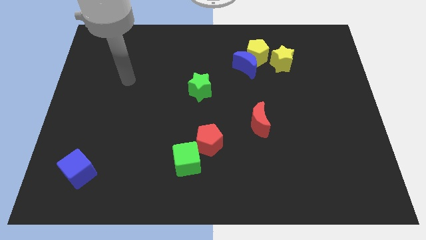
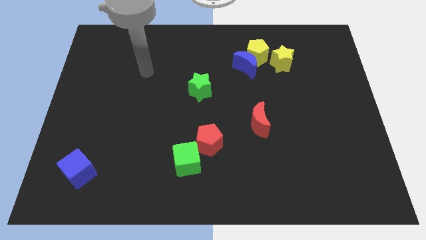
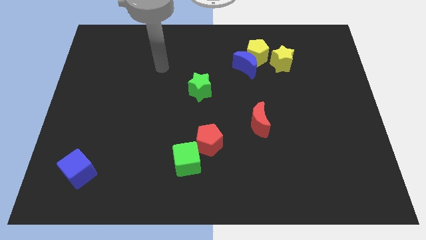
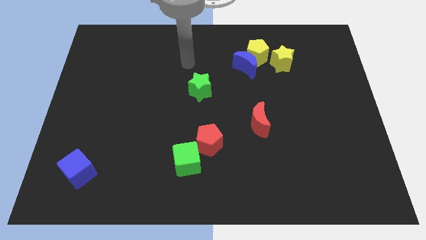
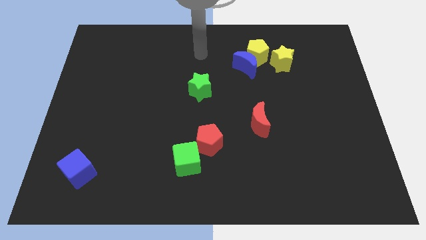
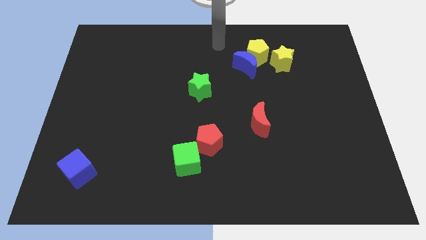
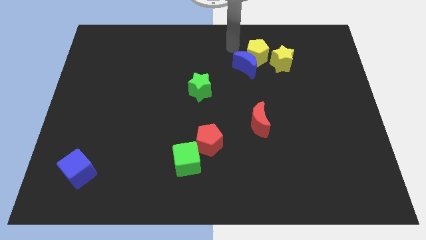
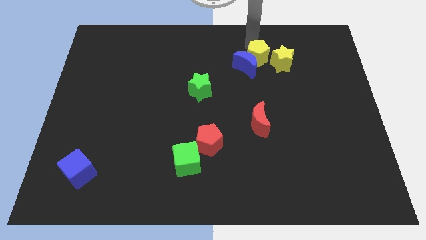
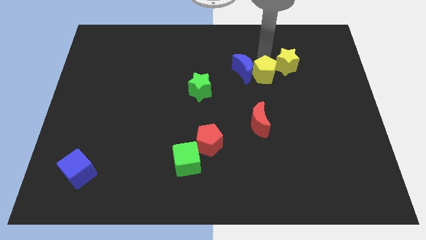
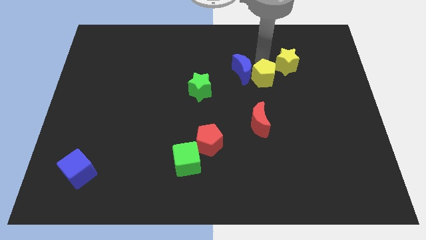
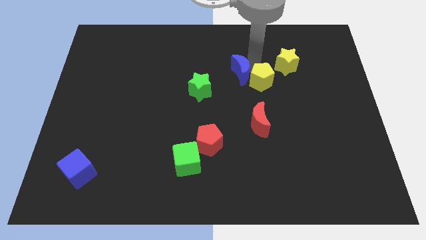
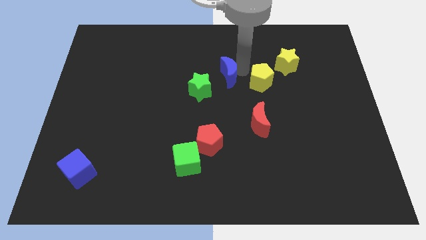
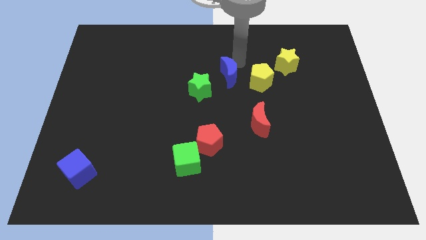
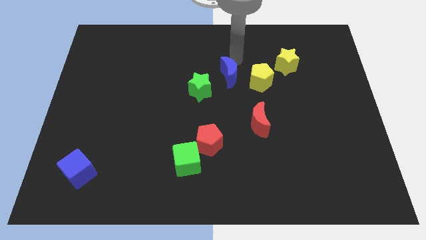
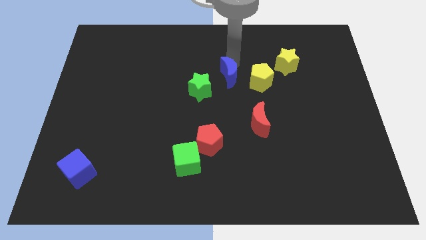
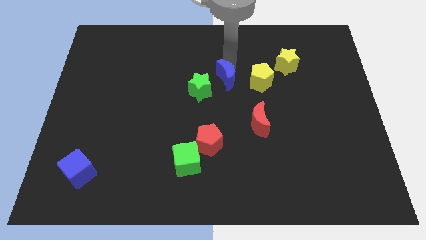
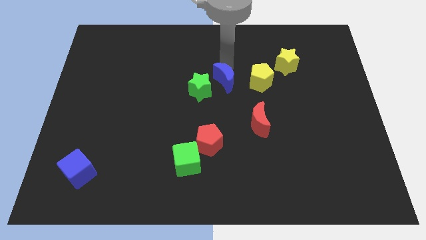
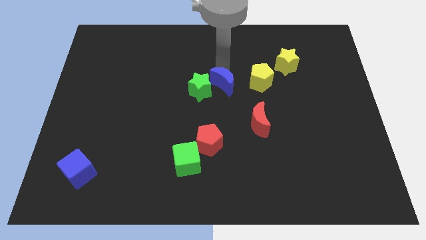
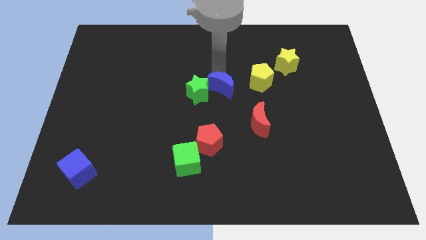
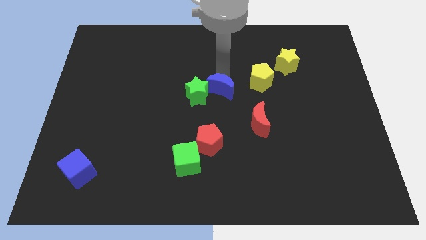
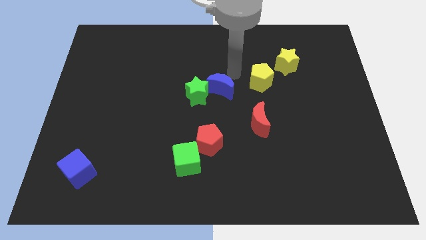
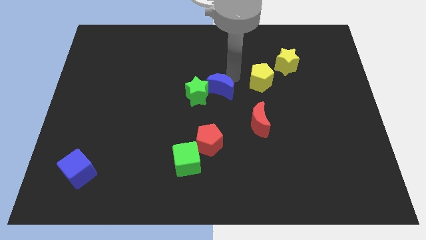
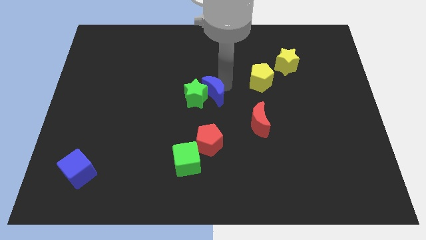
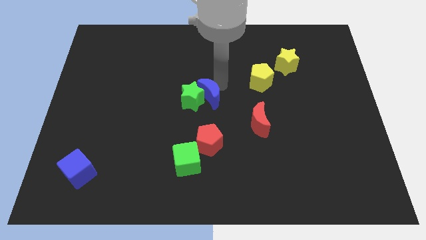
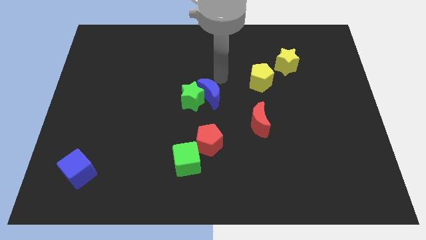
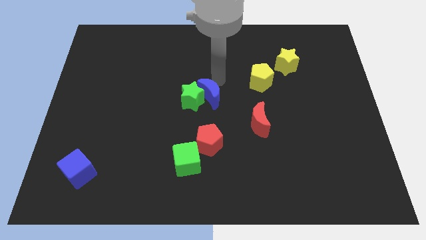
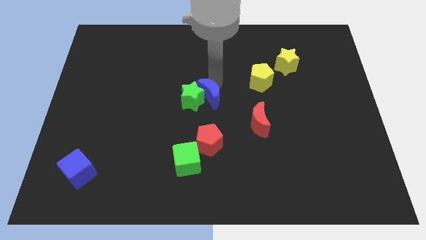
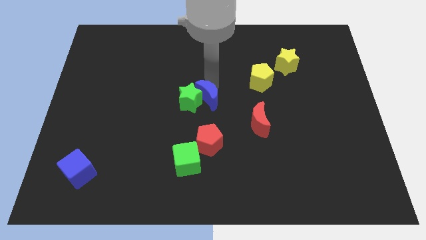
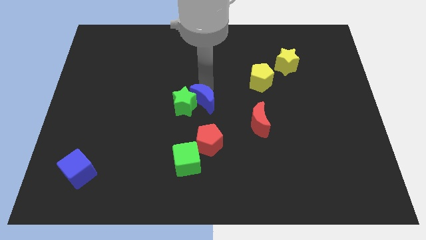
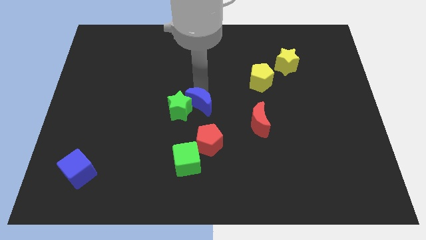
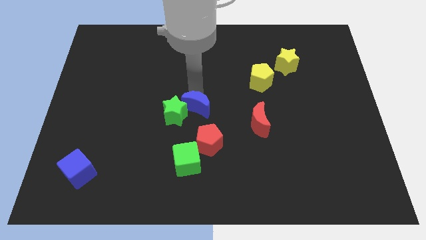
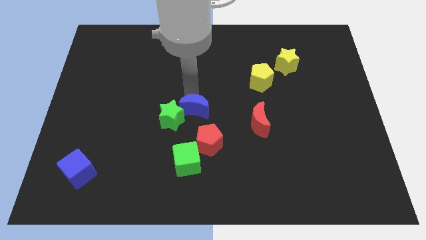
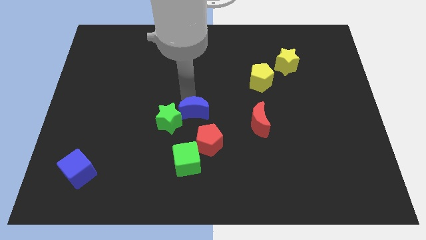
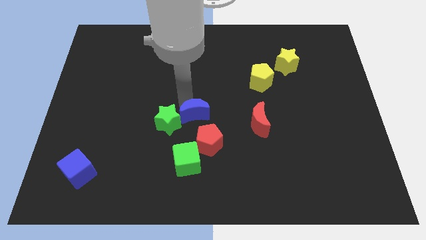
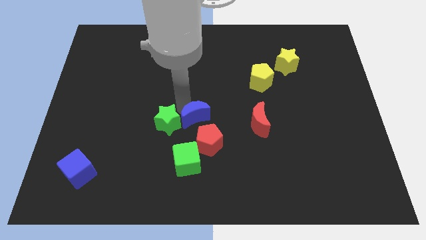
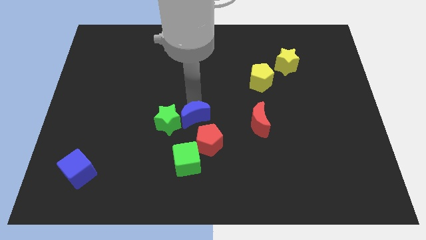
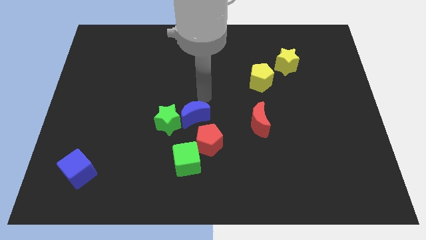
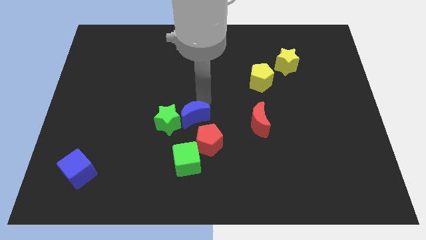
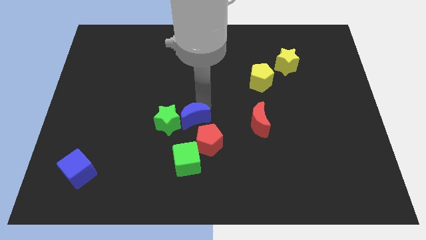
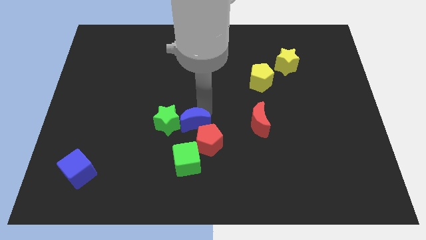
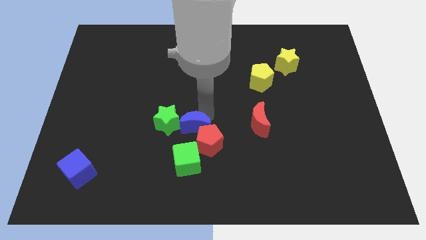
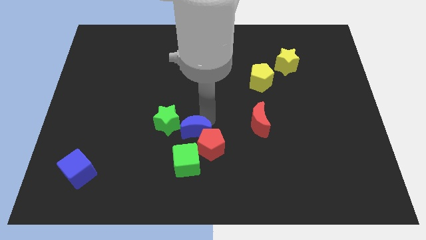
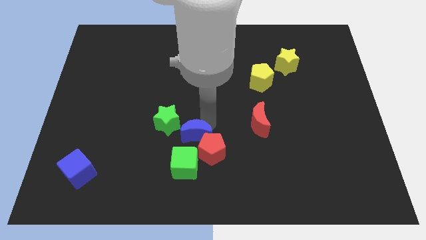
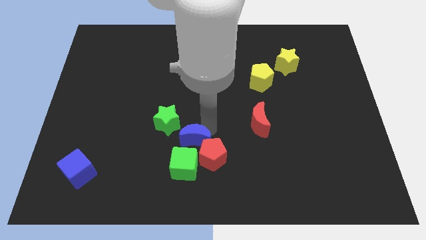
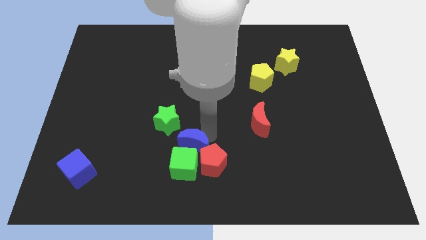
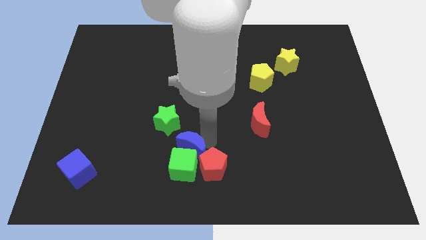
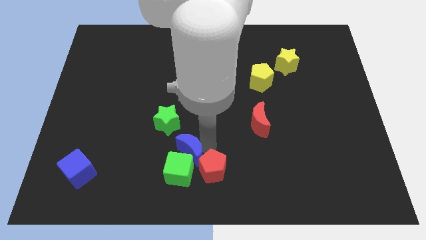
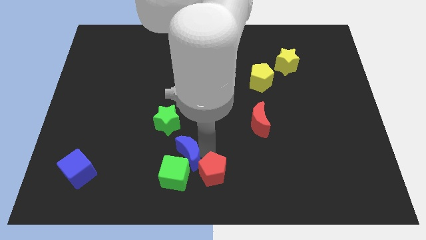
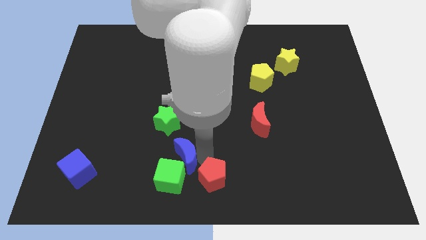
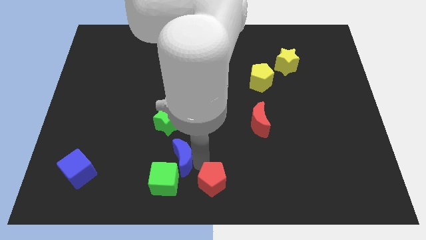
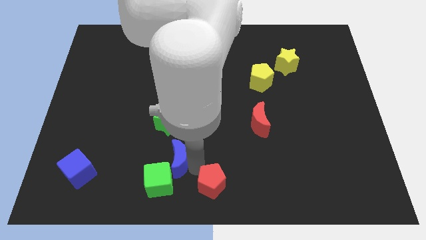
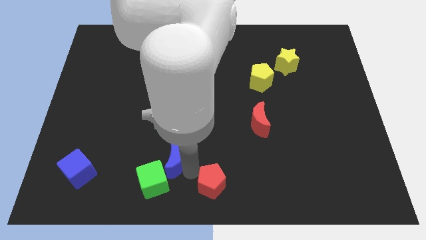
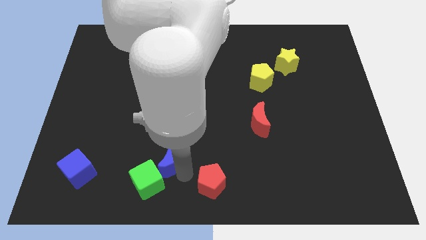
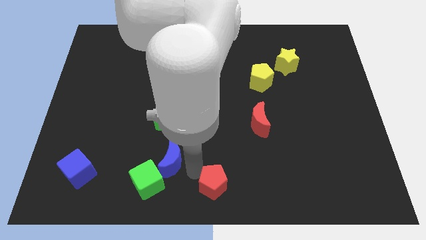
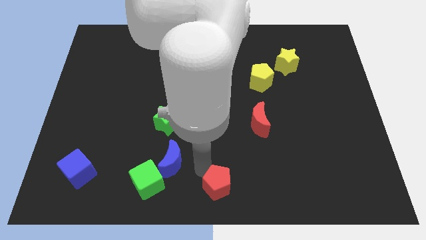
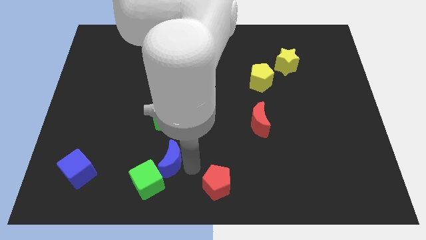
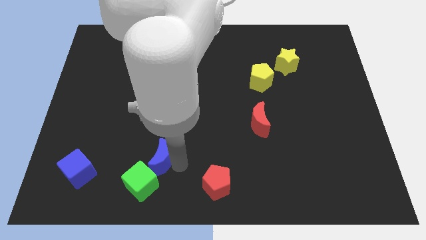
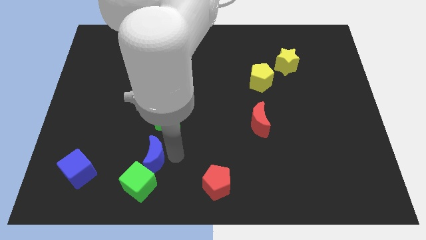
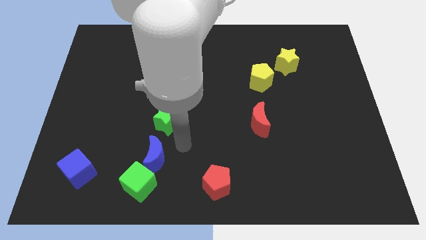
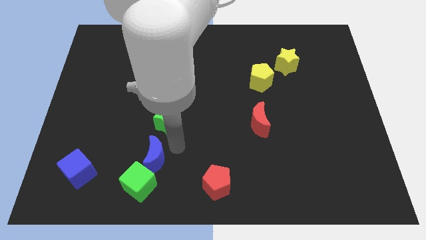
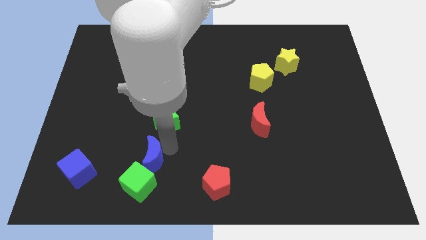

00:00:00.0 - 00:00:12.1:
push the blue moon to the right of the blue cube

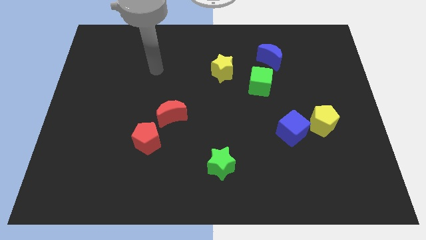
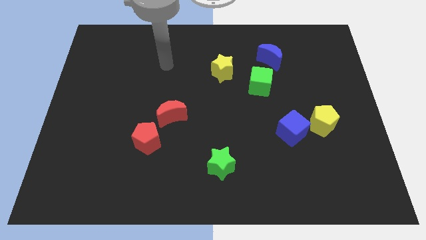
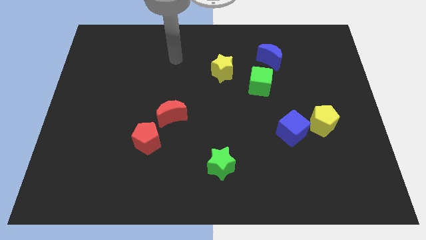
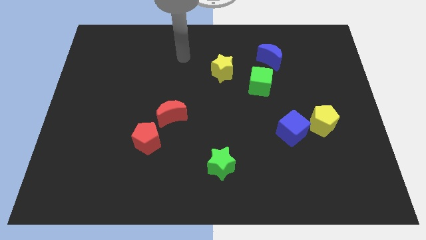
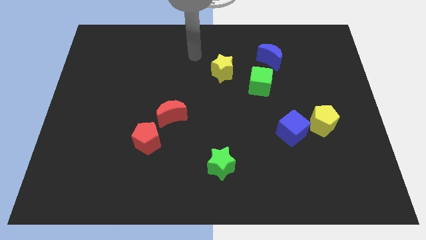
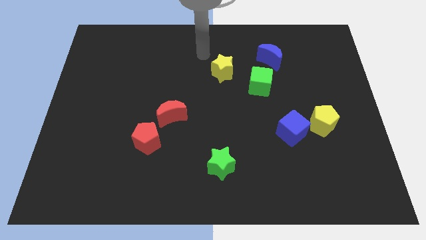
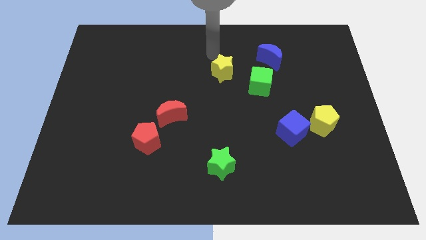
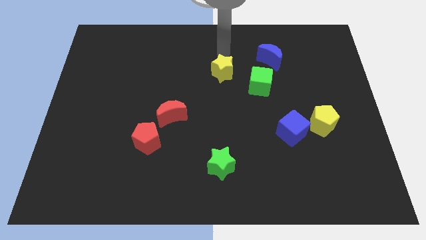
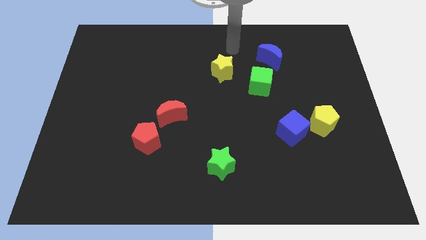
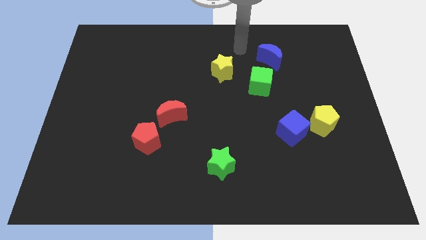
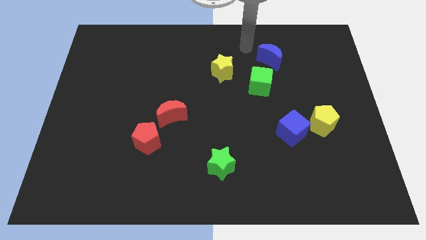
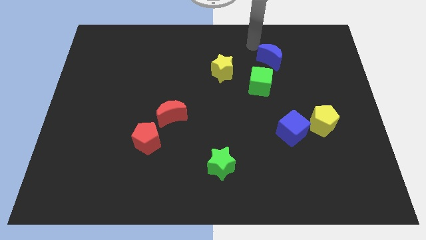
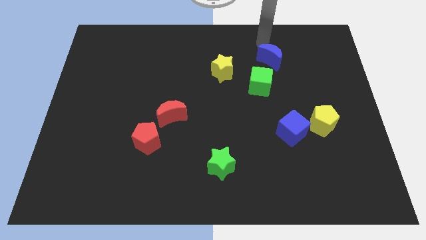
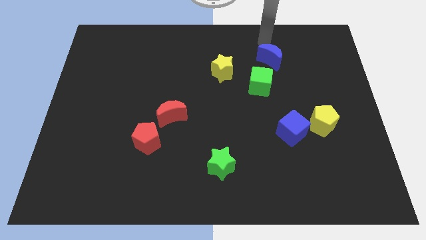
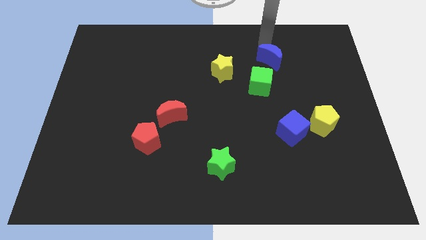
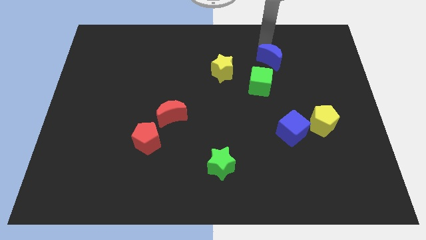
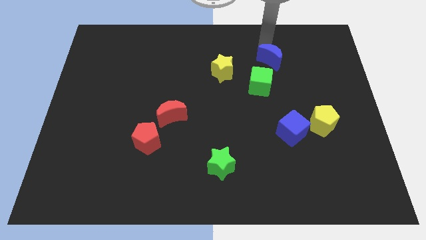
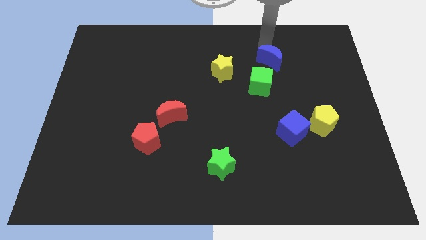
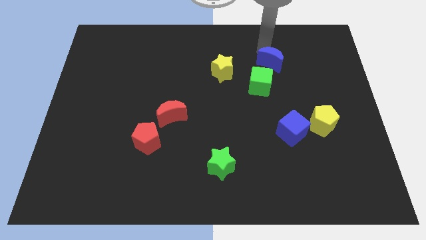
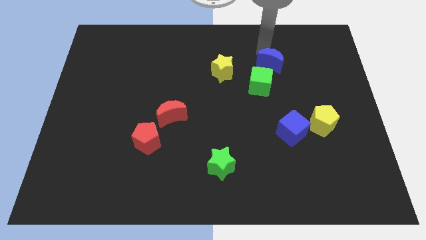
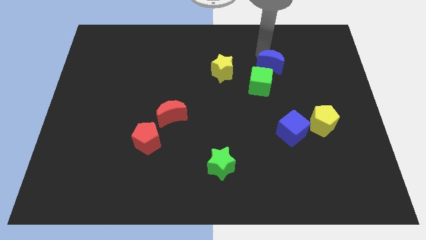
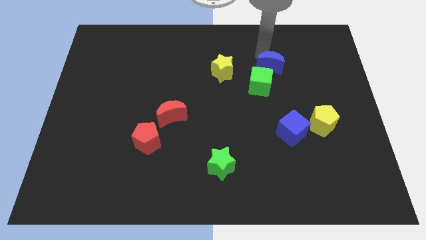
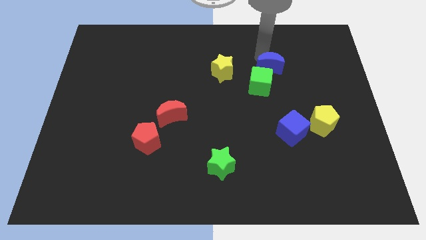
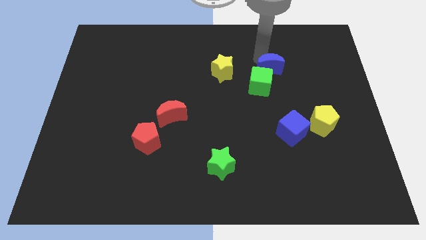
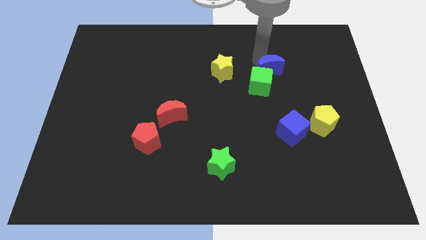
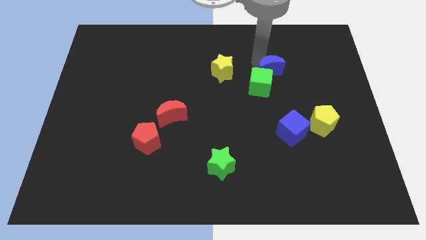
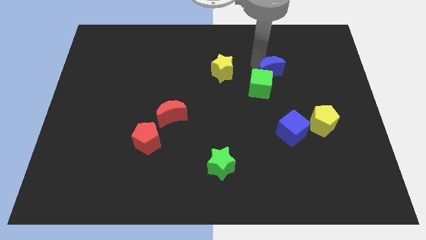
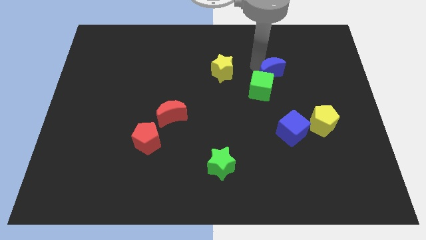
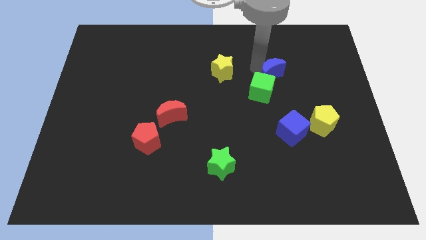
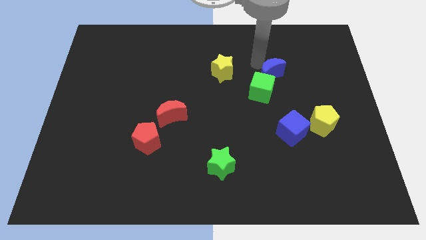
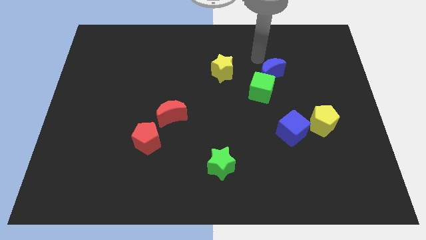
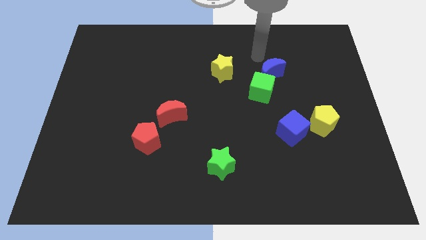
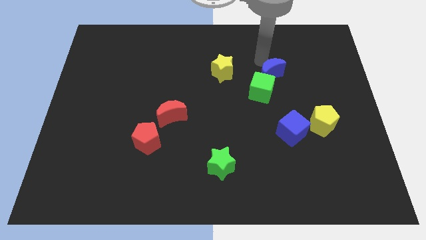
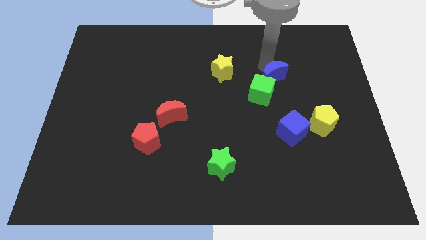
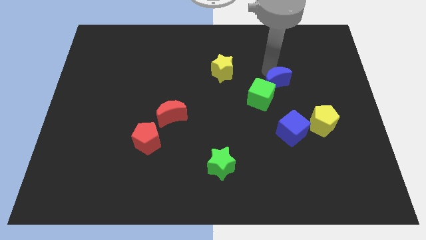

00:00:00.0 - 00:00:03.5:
move the blue moon to the top of the blue cube
